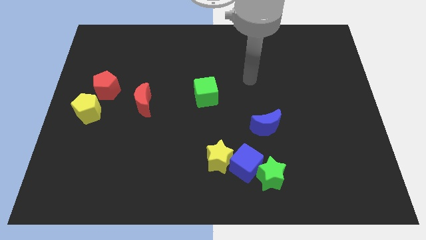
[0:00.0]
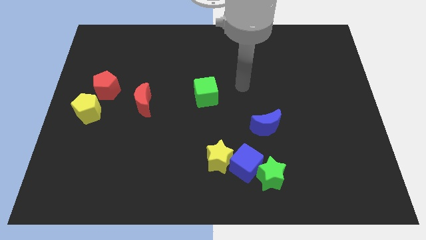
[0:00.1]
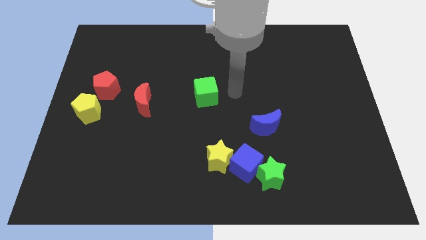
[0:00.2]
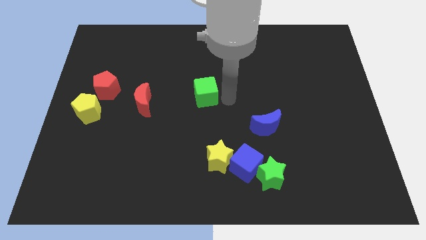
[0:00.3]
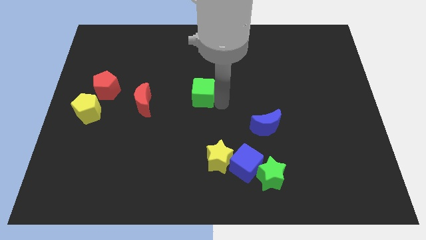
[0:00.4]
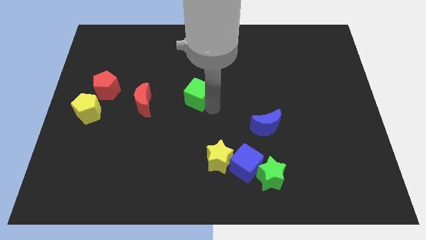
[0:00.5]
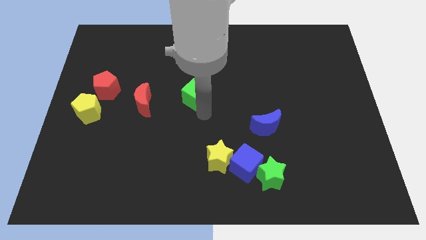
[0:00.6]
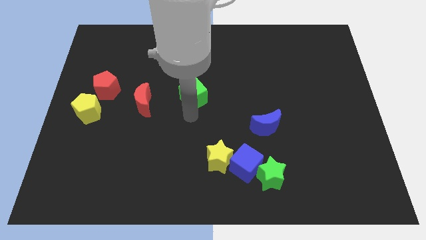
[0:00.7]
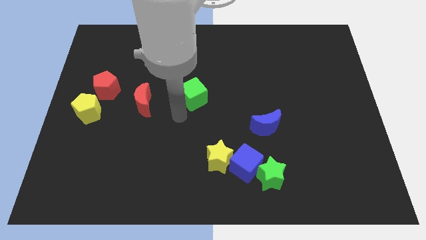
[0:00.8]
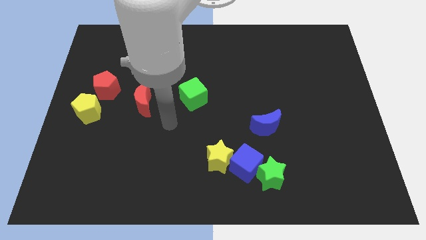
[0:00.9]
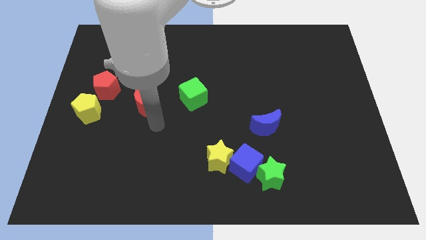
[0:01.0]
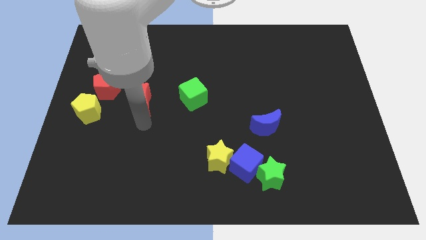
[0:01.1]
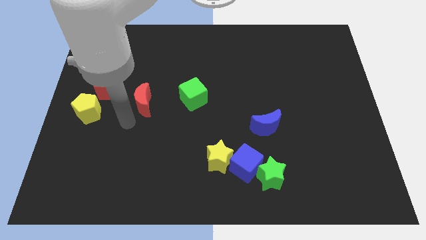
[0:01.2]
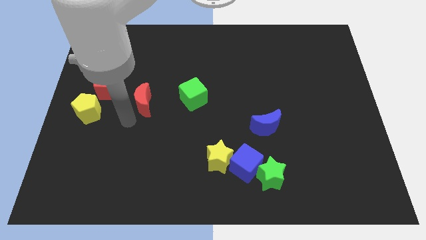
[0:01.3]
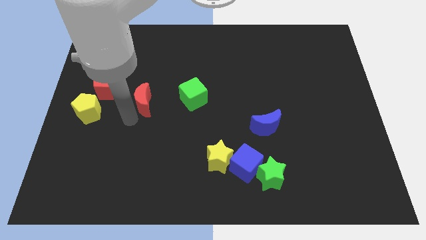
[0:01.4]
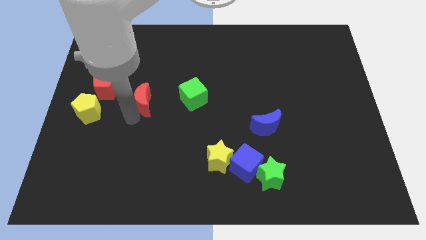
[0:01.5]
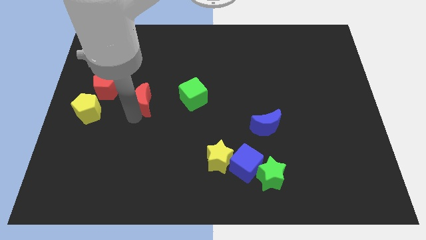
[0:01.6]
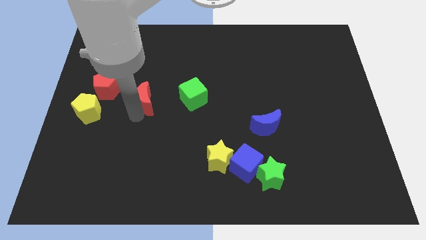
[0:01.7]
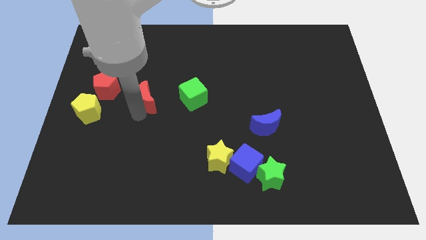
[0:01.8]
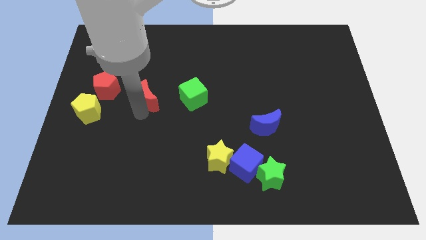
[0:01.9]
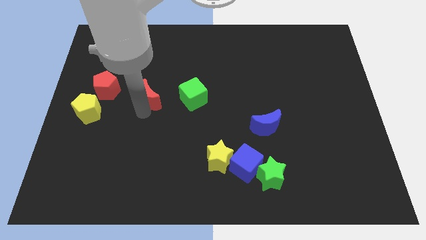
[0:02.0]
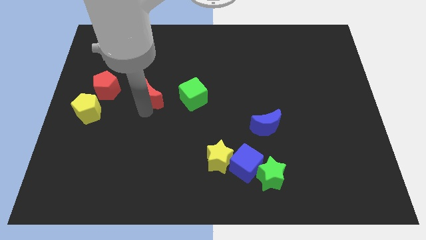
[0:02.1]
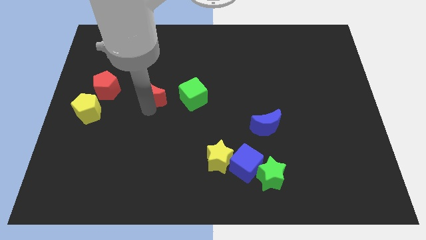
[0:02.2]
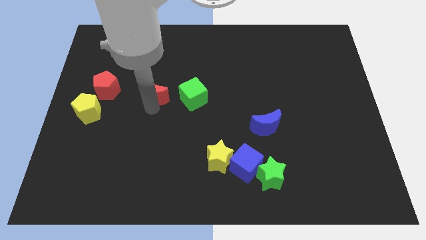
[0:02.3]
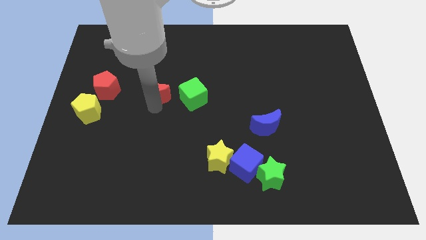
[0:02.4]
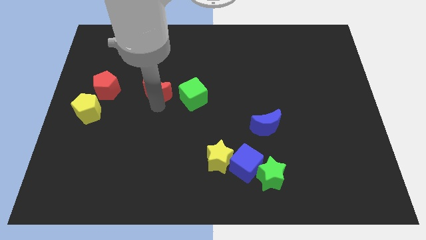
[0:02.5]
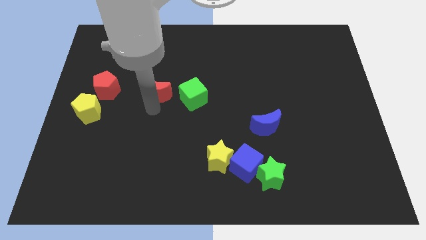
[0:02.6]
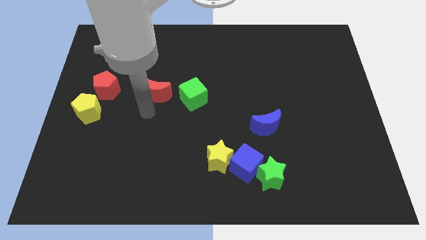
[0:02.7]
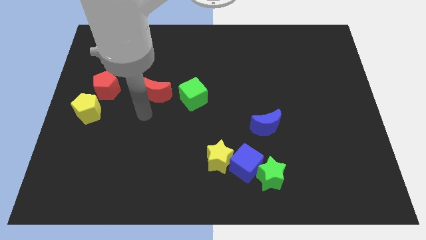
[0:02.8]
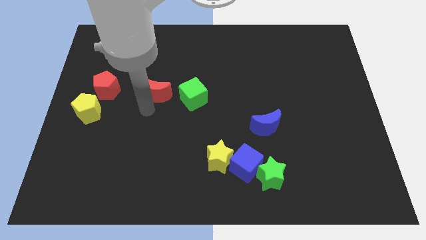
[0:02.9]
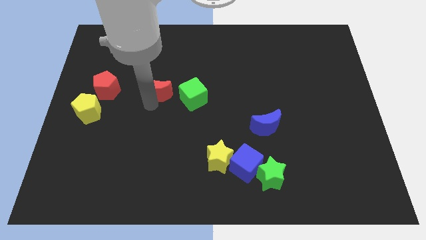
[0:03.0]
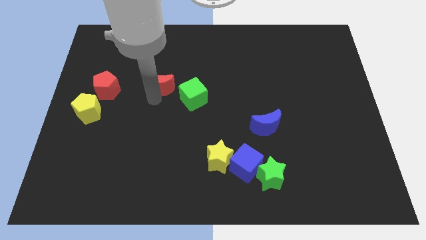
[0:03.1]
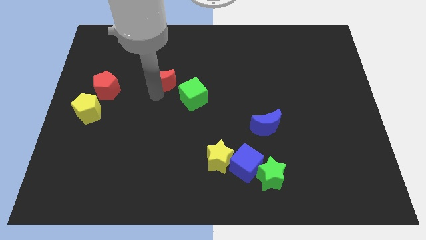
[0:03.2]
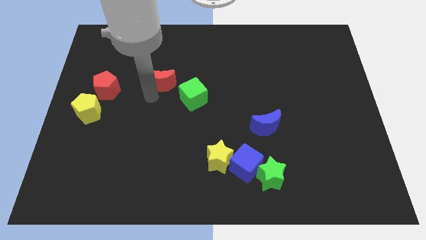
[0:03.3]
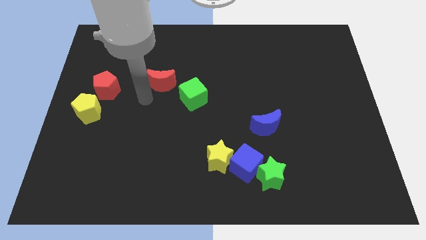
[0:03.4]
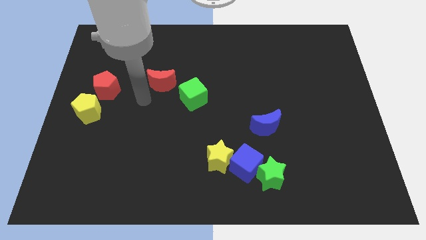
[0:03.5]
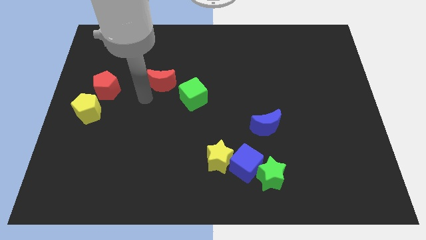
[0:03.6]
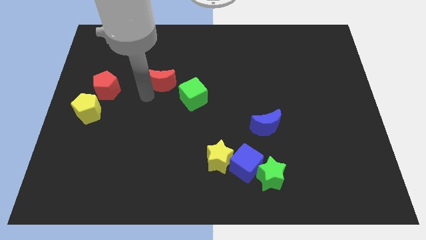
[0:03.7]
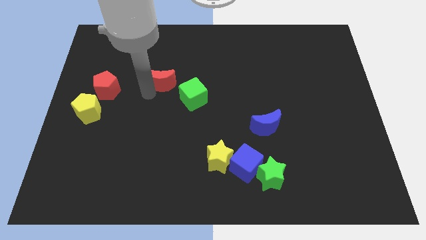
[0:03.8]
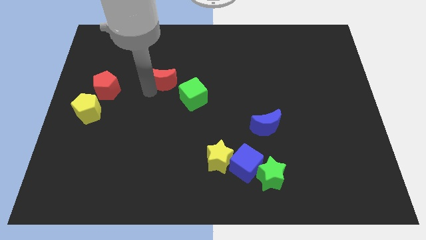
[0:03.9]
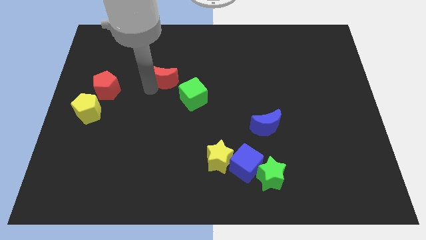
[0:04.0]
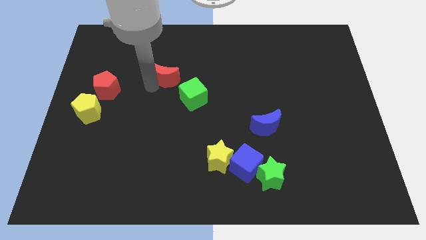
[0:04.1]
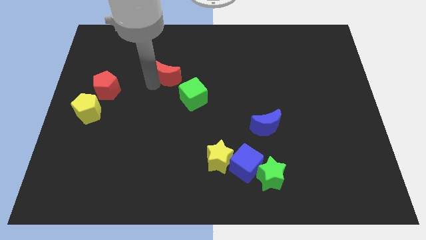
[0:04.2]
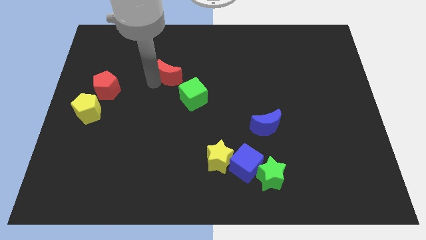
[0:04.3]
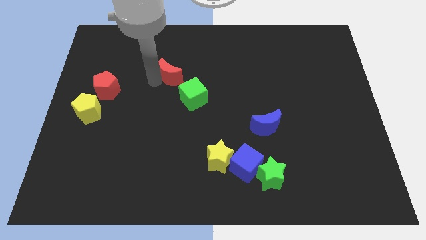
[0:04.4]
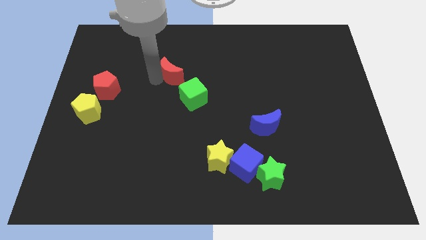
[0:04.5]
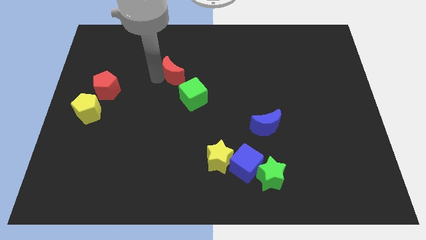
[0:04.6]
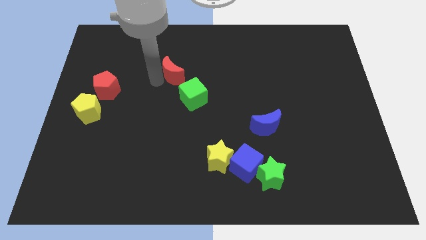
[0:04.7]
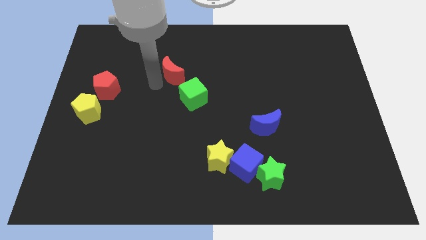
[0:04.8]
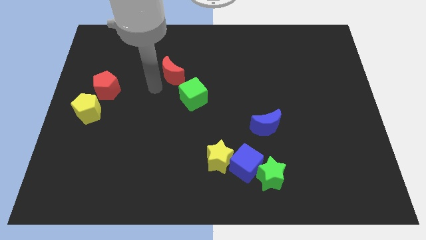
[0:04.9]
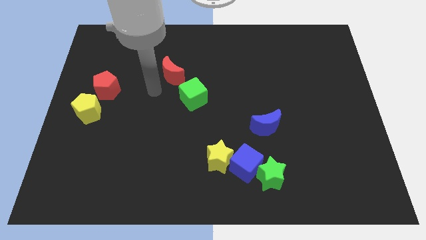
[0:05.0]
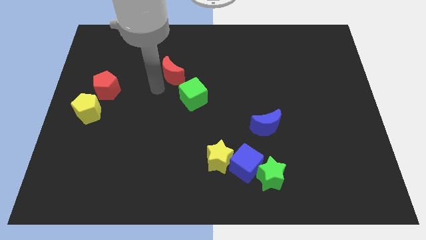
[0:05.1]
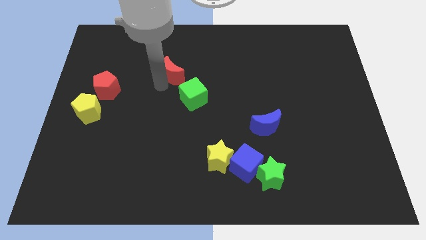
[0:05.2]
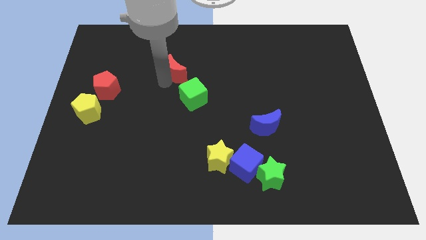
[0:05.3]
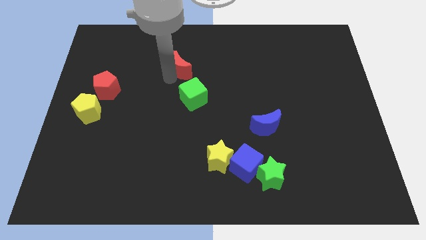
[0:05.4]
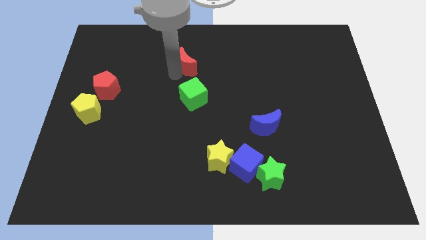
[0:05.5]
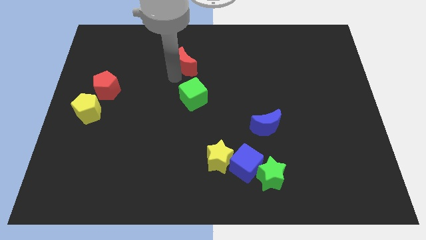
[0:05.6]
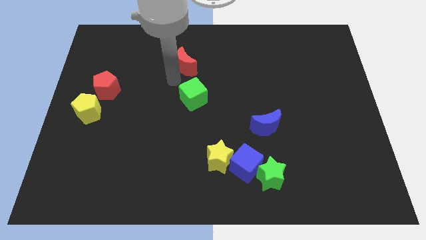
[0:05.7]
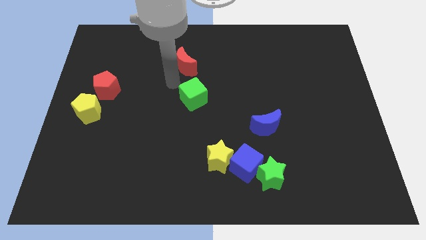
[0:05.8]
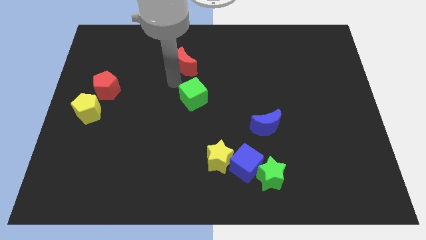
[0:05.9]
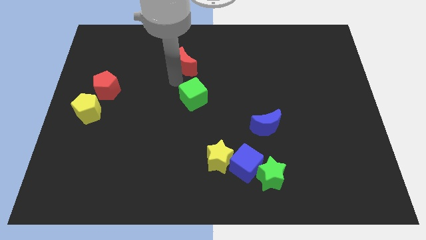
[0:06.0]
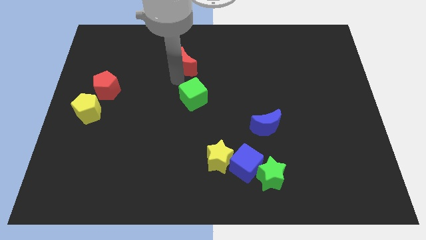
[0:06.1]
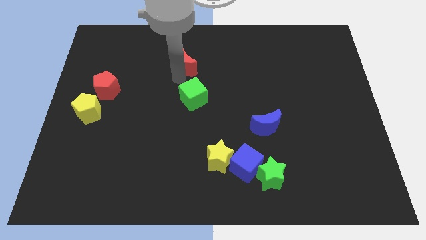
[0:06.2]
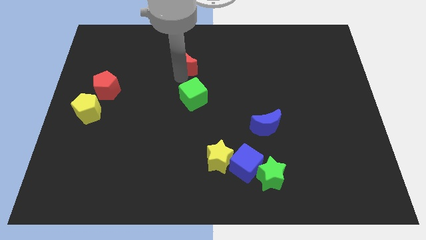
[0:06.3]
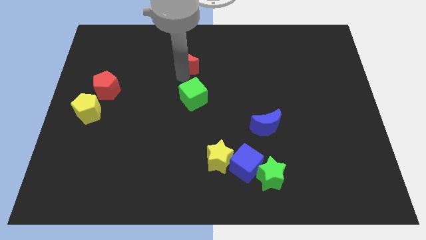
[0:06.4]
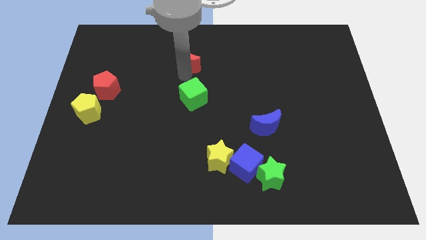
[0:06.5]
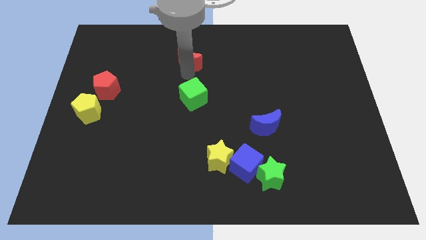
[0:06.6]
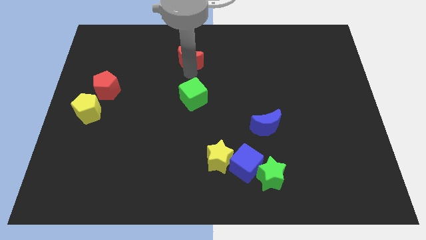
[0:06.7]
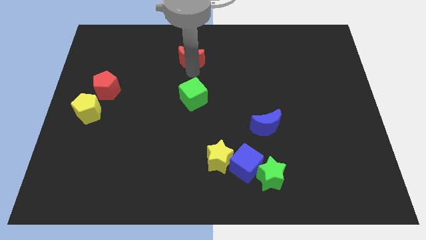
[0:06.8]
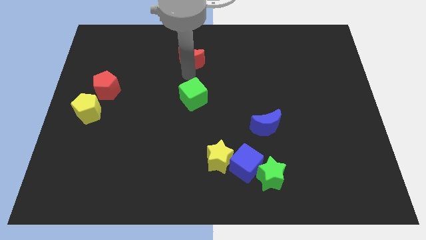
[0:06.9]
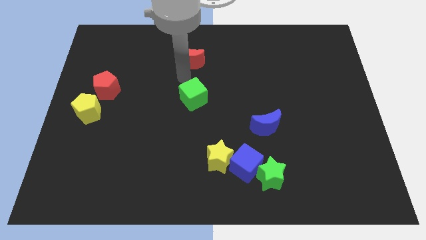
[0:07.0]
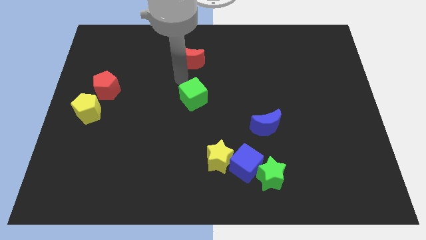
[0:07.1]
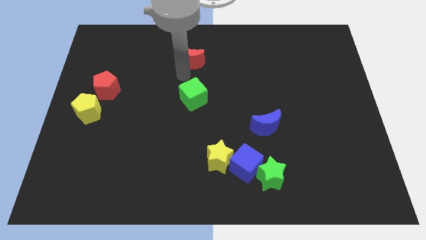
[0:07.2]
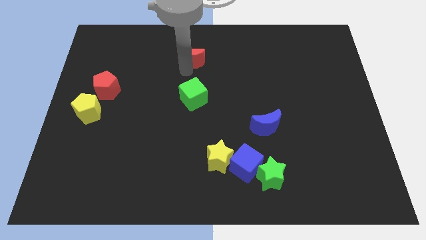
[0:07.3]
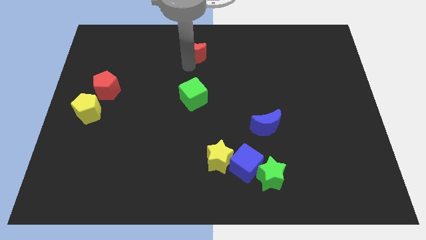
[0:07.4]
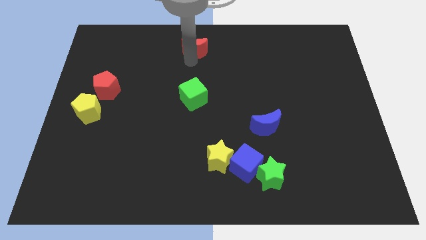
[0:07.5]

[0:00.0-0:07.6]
put the red moon to the top side
